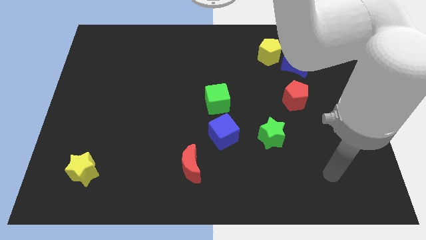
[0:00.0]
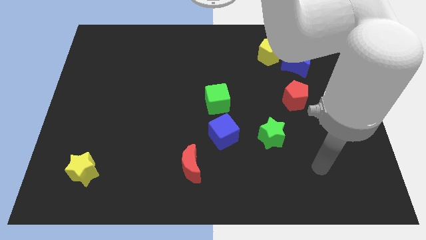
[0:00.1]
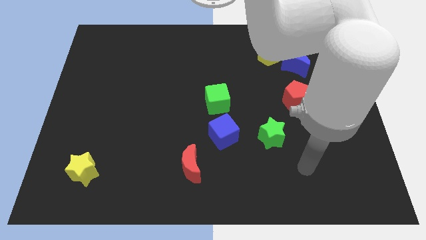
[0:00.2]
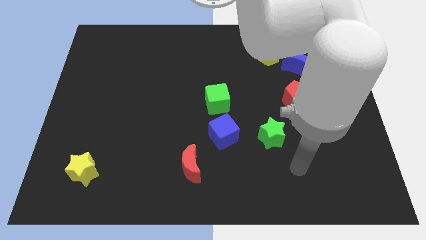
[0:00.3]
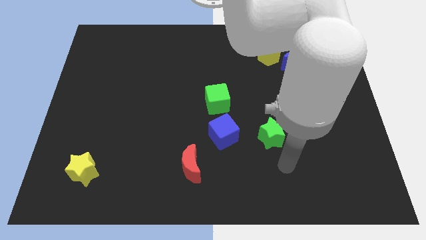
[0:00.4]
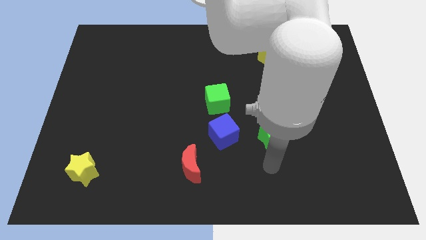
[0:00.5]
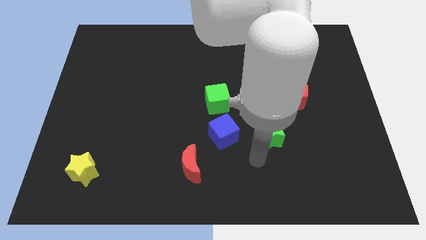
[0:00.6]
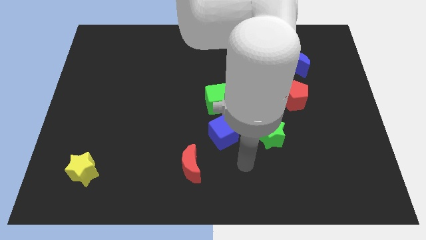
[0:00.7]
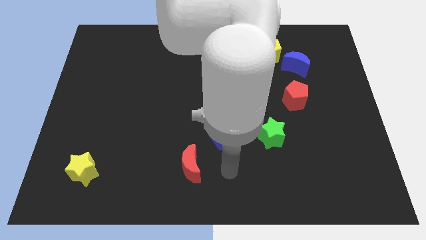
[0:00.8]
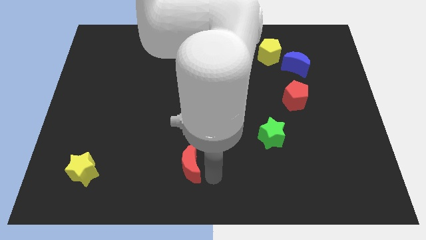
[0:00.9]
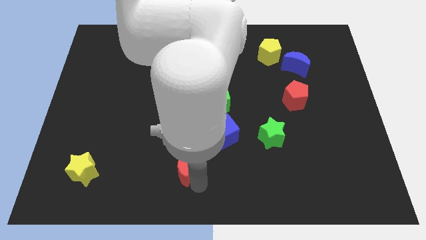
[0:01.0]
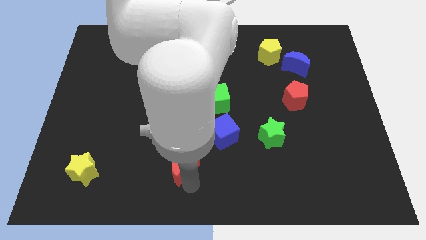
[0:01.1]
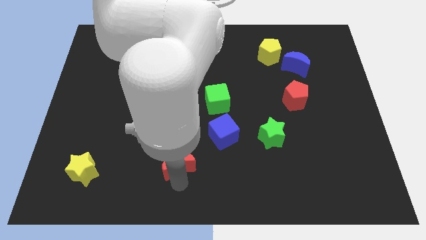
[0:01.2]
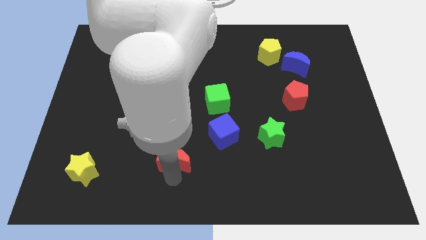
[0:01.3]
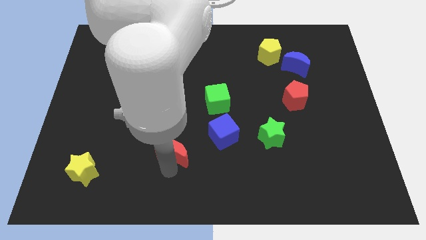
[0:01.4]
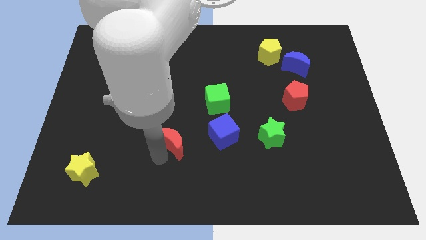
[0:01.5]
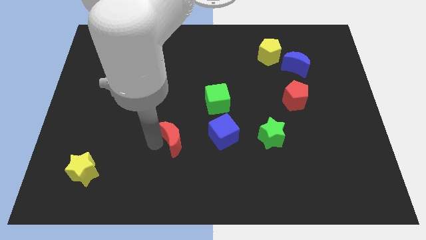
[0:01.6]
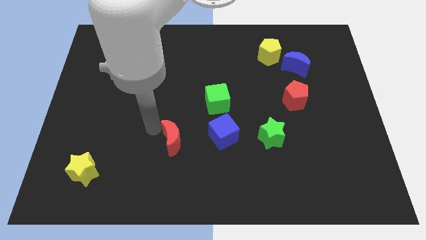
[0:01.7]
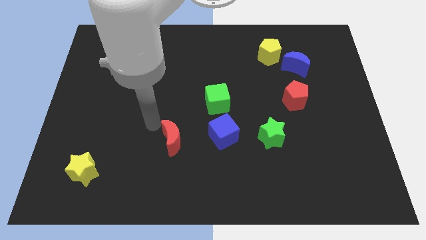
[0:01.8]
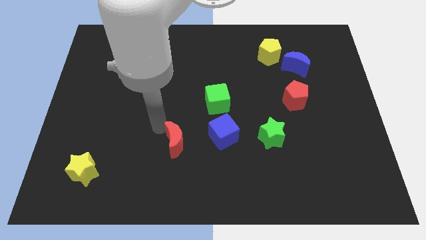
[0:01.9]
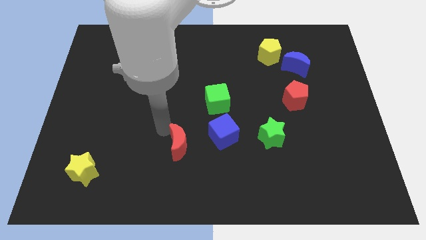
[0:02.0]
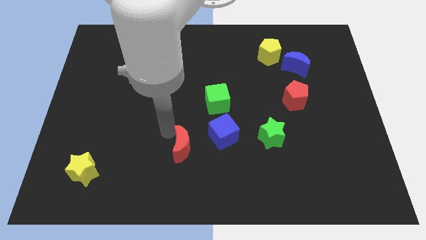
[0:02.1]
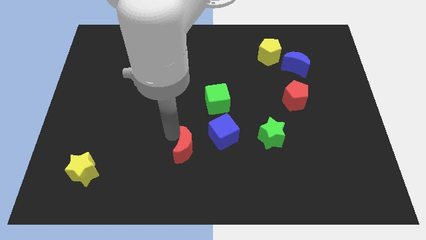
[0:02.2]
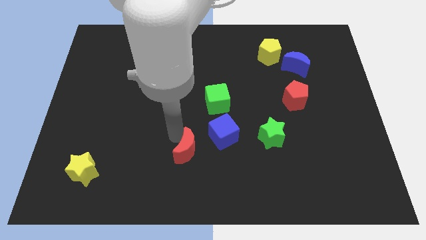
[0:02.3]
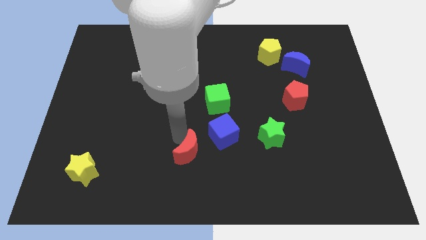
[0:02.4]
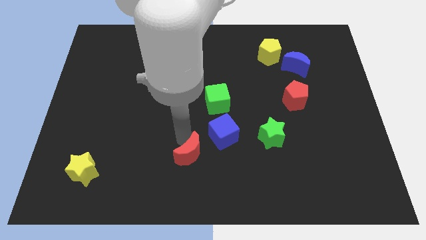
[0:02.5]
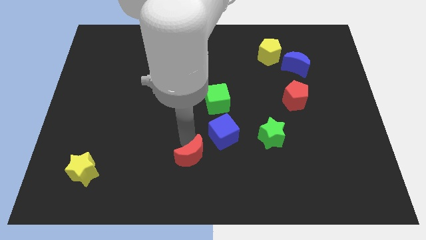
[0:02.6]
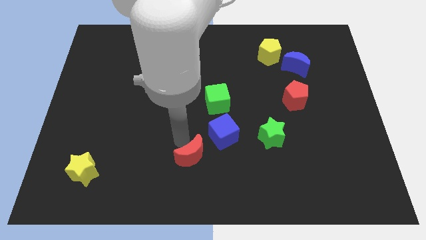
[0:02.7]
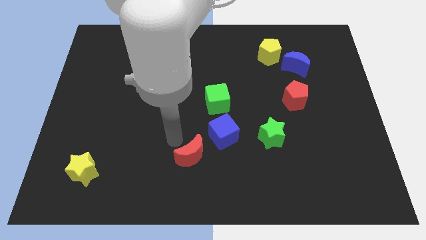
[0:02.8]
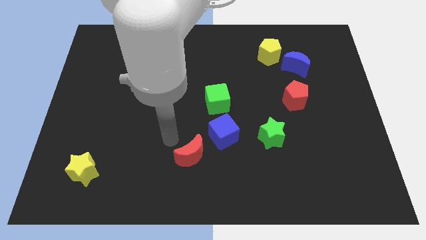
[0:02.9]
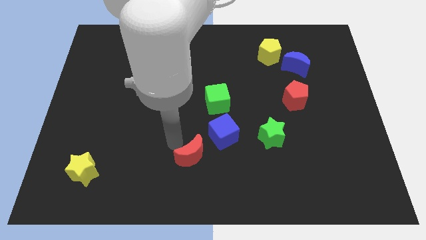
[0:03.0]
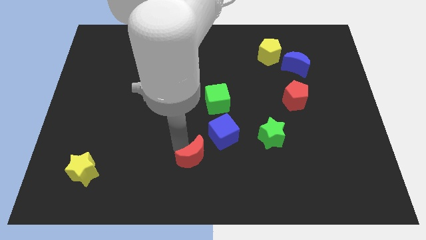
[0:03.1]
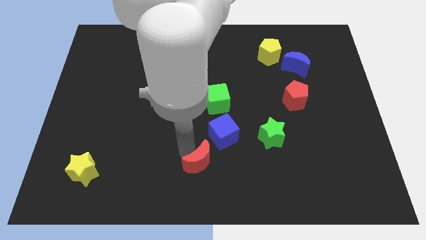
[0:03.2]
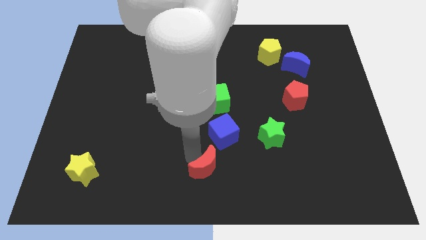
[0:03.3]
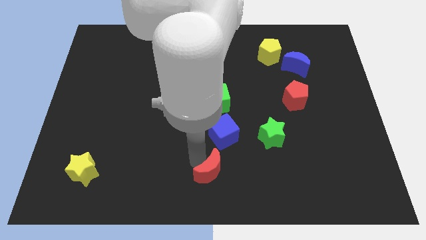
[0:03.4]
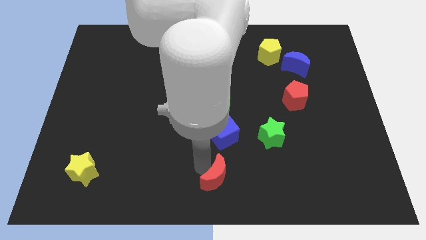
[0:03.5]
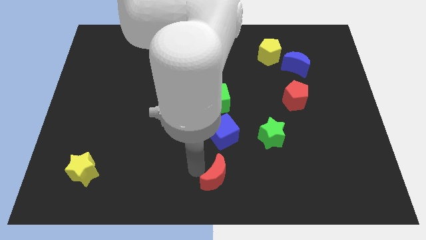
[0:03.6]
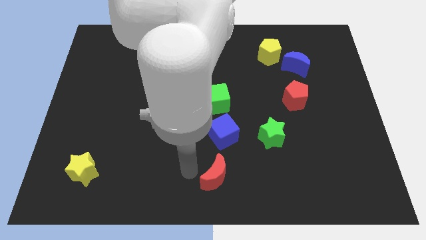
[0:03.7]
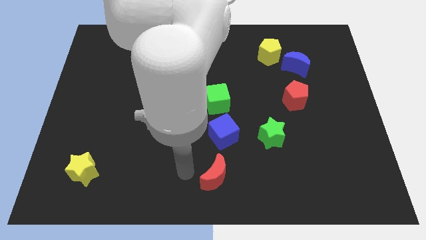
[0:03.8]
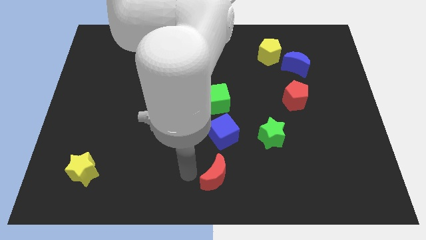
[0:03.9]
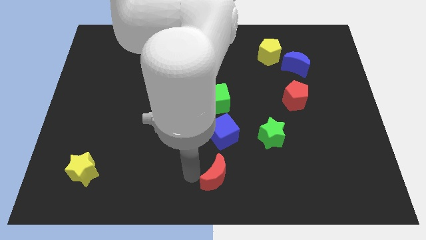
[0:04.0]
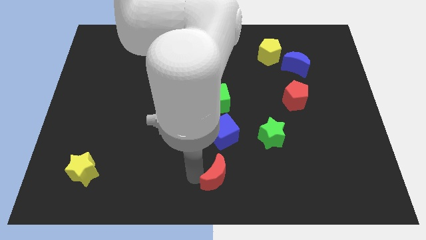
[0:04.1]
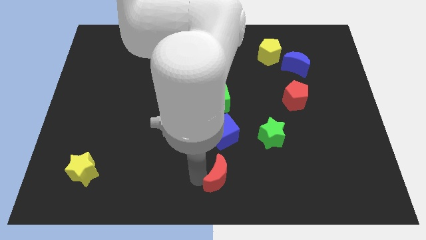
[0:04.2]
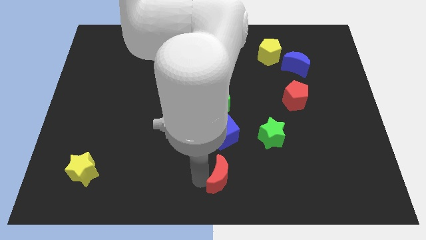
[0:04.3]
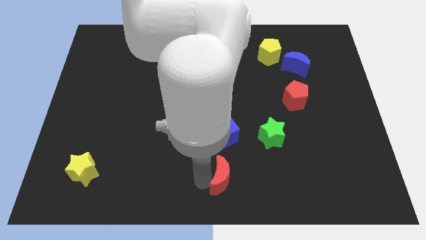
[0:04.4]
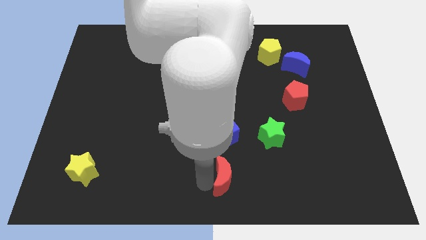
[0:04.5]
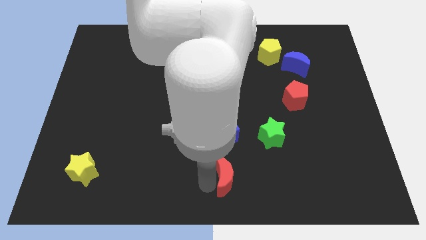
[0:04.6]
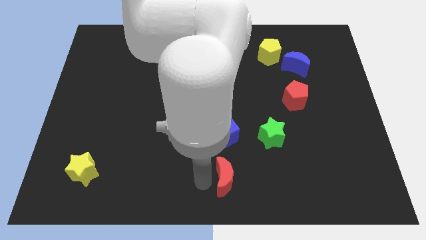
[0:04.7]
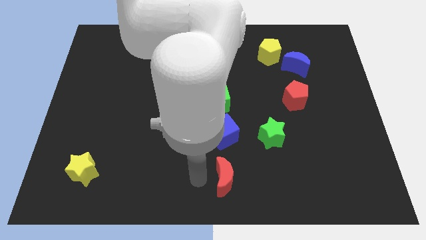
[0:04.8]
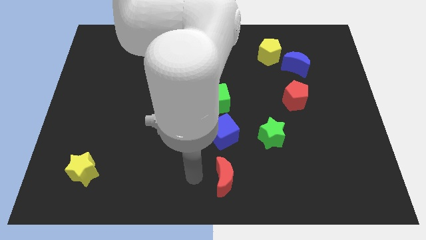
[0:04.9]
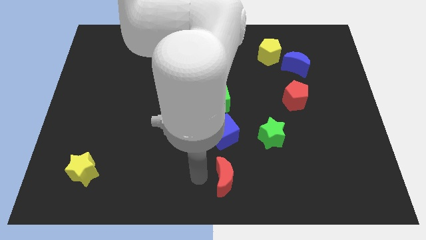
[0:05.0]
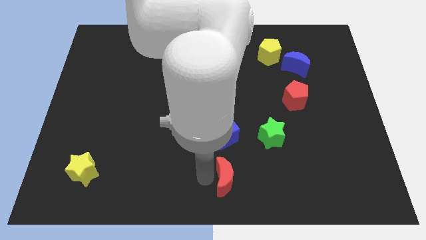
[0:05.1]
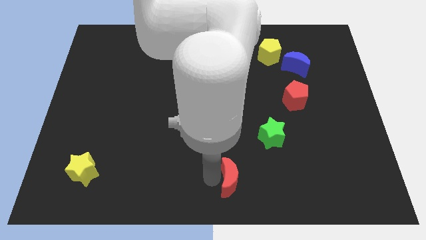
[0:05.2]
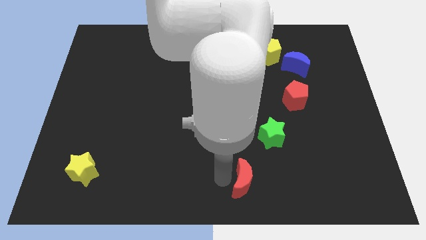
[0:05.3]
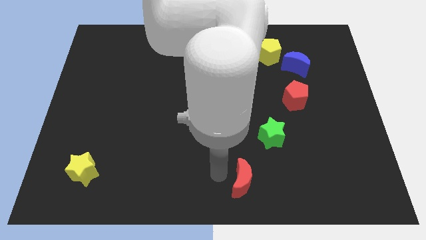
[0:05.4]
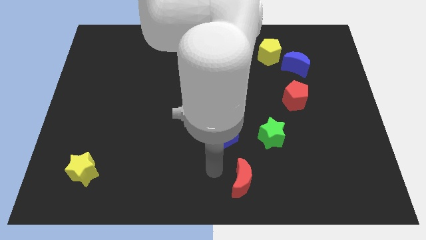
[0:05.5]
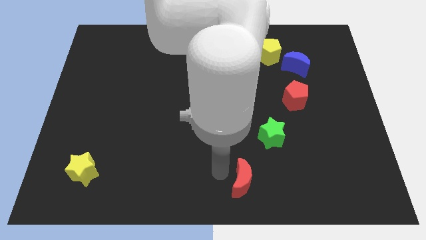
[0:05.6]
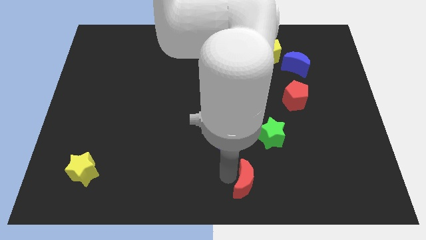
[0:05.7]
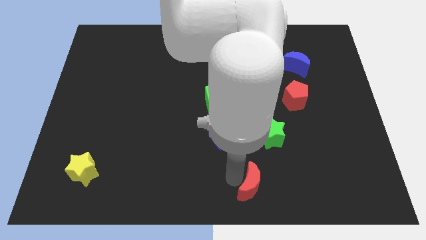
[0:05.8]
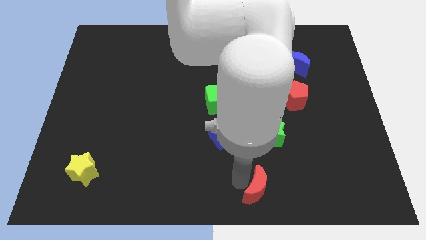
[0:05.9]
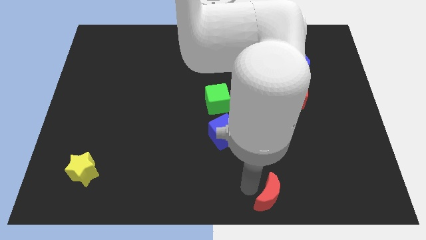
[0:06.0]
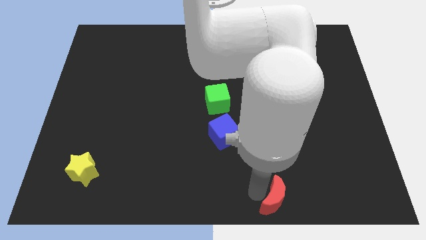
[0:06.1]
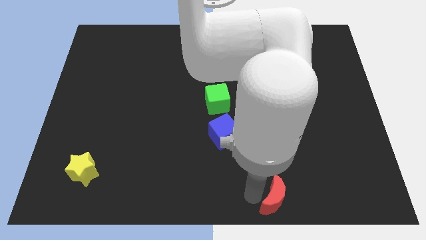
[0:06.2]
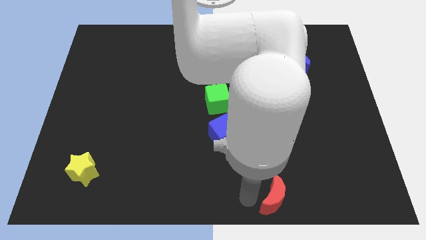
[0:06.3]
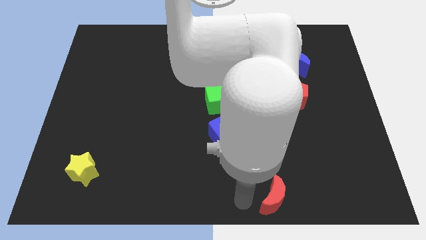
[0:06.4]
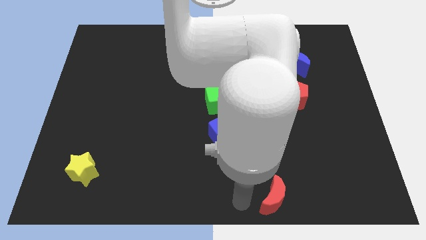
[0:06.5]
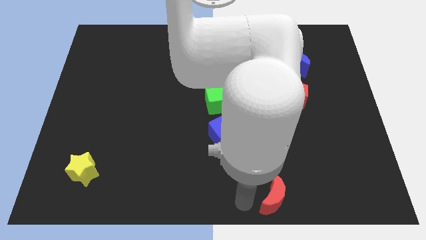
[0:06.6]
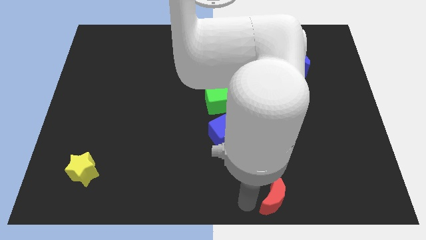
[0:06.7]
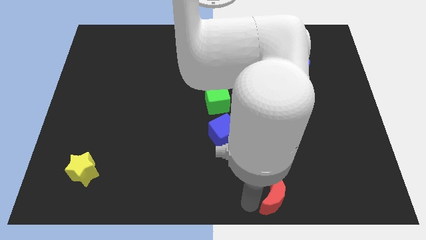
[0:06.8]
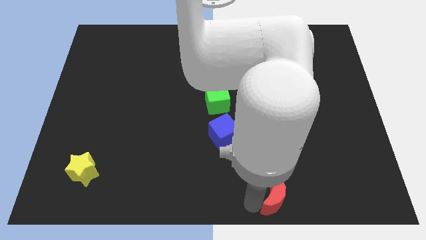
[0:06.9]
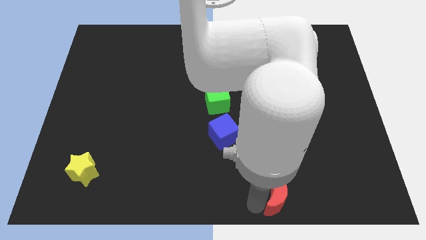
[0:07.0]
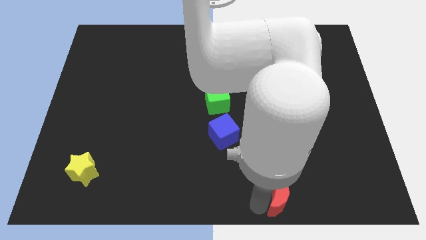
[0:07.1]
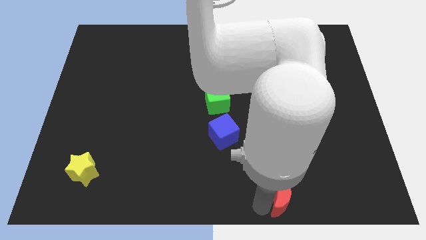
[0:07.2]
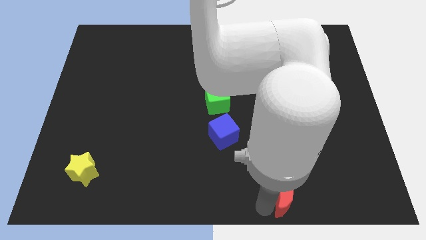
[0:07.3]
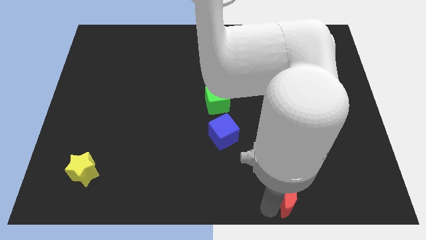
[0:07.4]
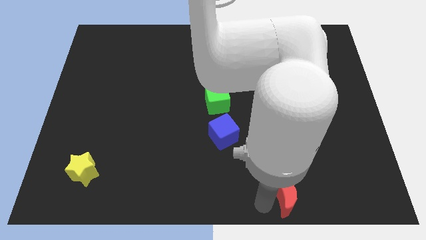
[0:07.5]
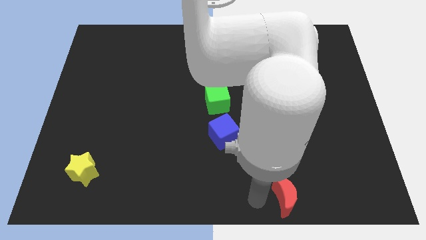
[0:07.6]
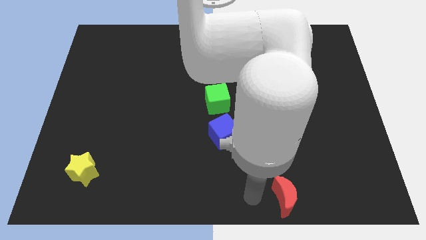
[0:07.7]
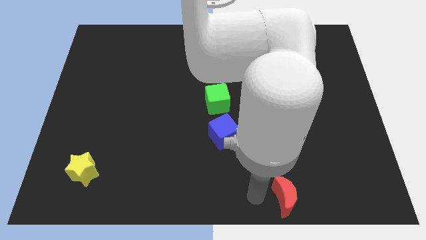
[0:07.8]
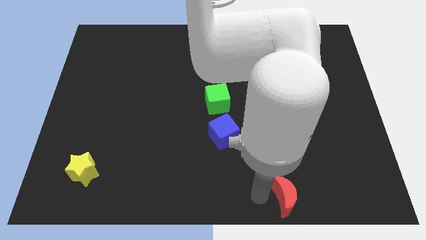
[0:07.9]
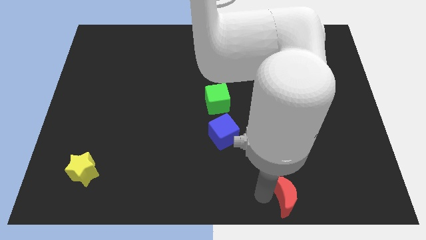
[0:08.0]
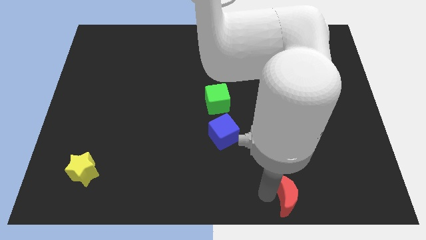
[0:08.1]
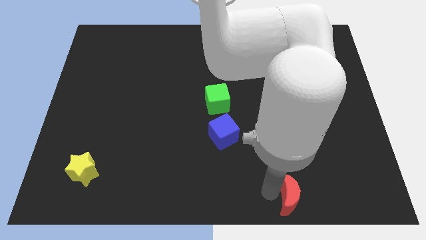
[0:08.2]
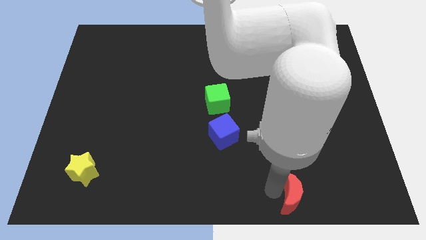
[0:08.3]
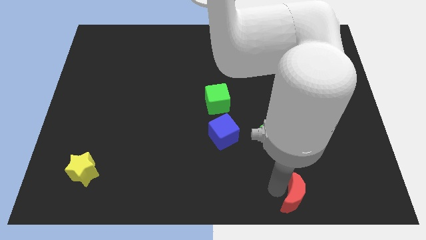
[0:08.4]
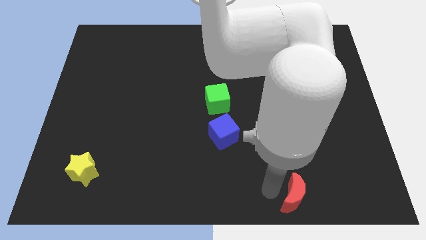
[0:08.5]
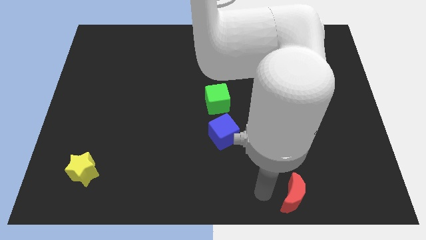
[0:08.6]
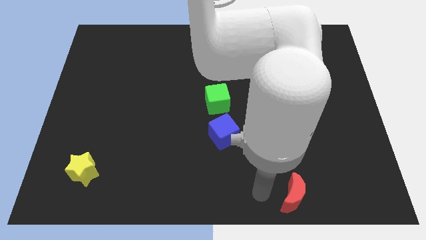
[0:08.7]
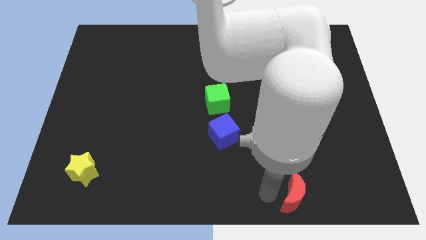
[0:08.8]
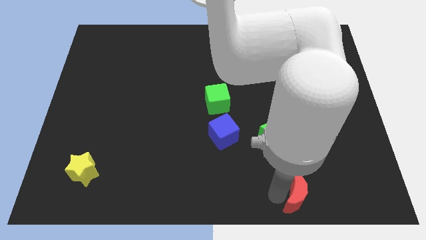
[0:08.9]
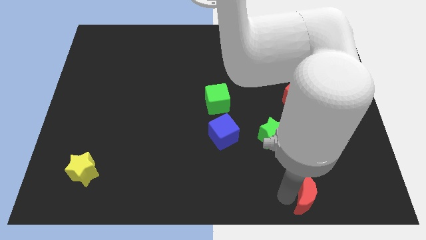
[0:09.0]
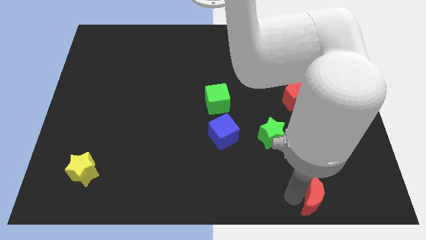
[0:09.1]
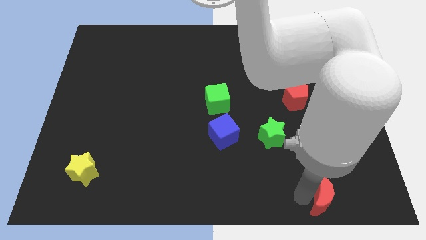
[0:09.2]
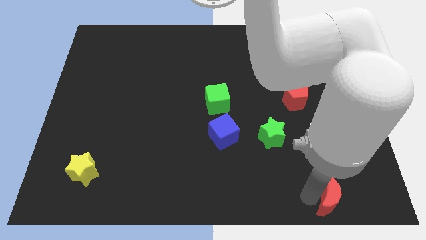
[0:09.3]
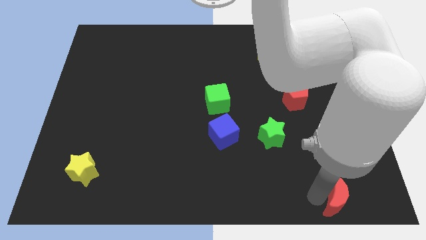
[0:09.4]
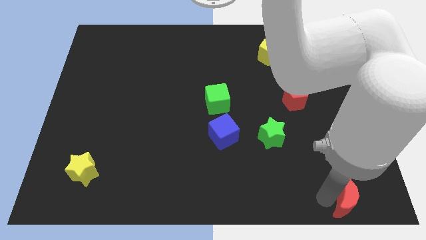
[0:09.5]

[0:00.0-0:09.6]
slide the red moon to the lower right corner
